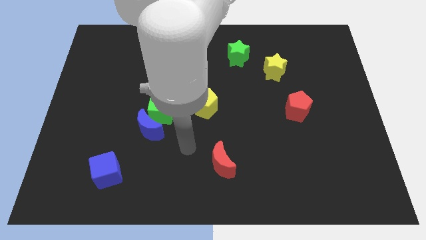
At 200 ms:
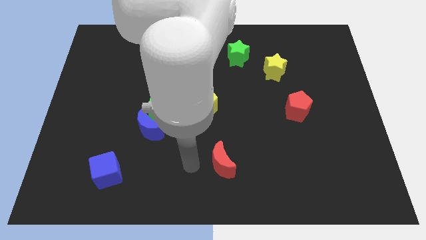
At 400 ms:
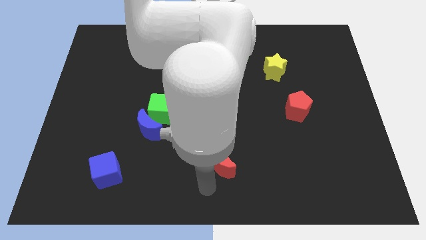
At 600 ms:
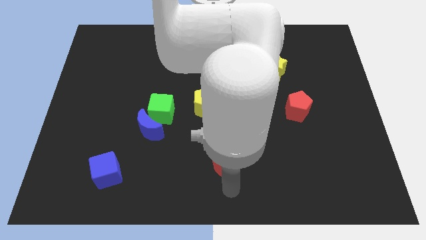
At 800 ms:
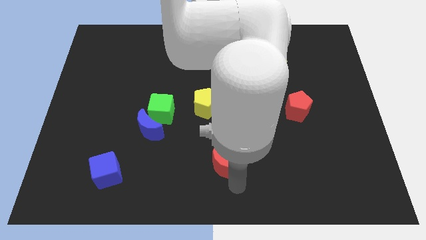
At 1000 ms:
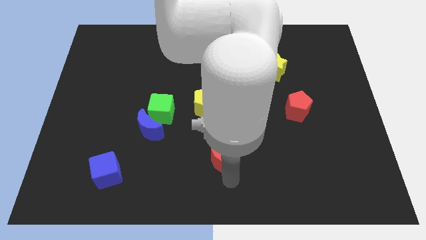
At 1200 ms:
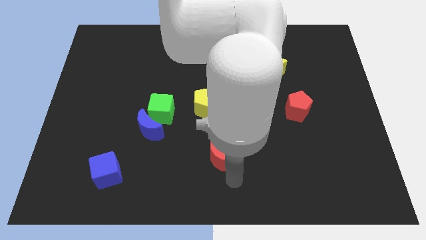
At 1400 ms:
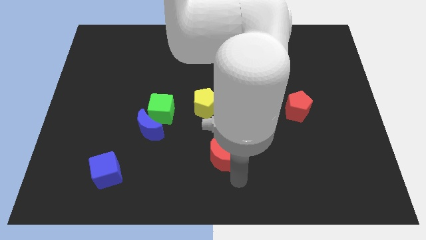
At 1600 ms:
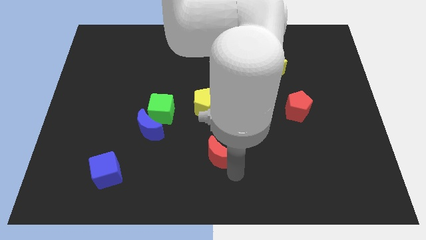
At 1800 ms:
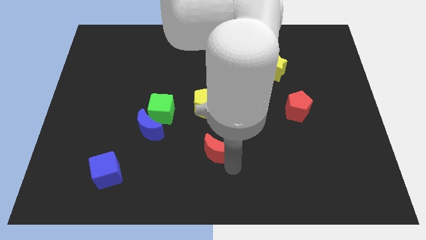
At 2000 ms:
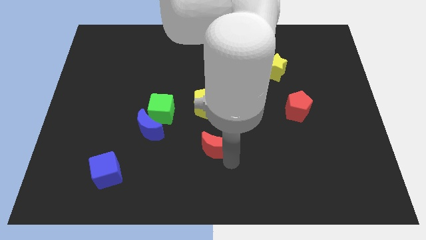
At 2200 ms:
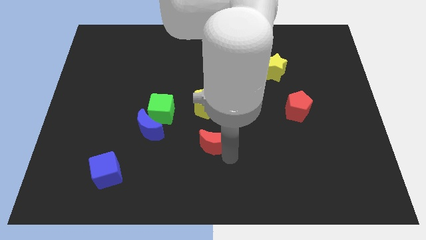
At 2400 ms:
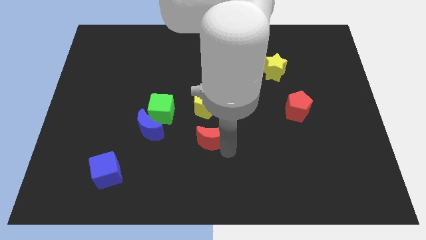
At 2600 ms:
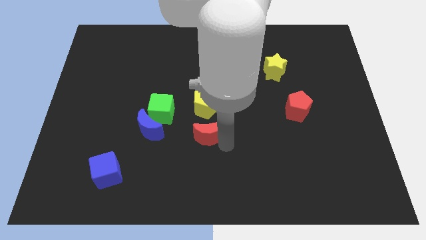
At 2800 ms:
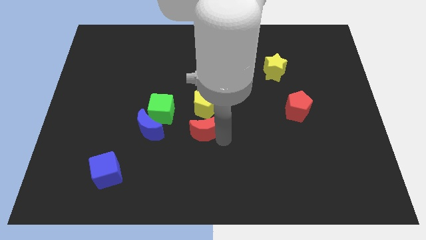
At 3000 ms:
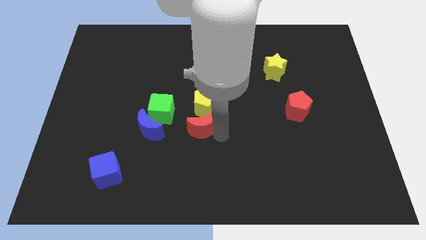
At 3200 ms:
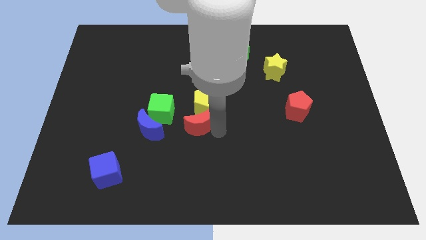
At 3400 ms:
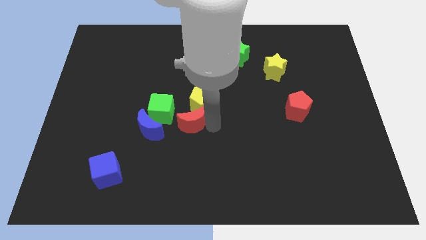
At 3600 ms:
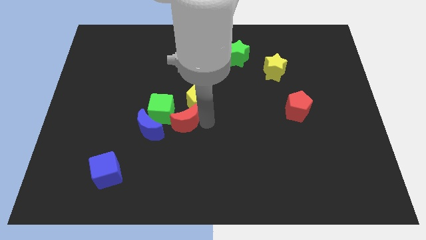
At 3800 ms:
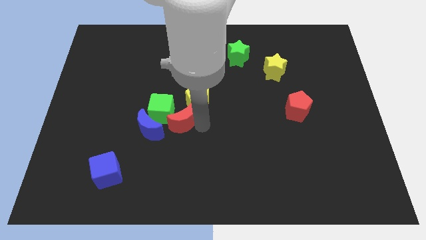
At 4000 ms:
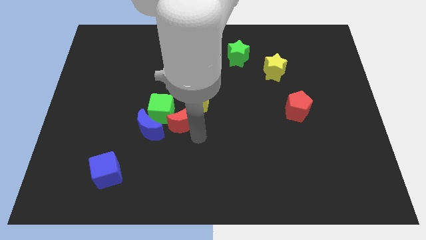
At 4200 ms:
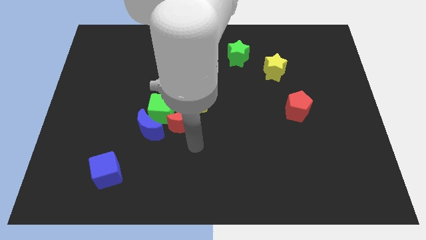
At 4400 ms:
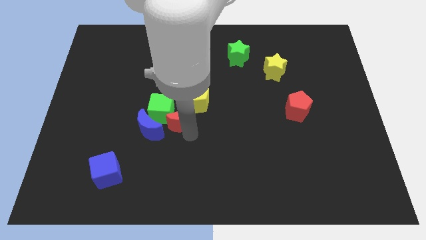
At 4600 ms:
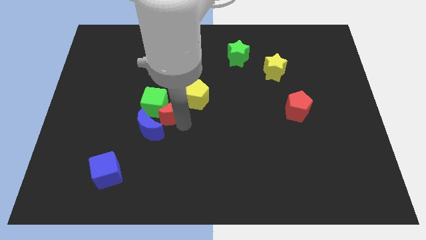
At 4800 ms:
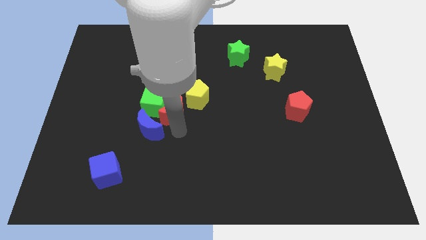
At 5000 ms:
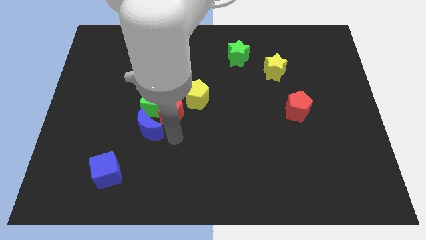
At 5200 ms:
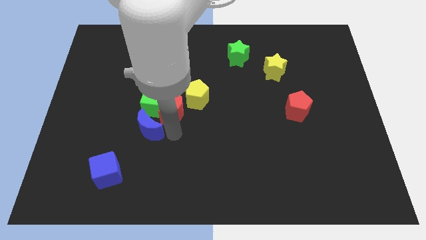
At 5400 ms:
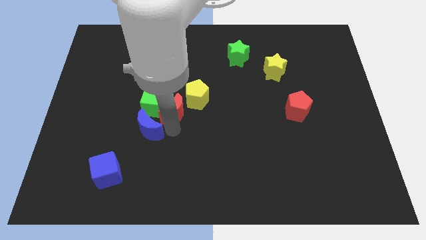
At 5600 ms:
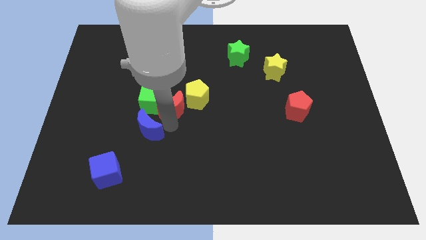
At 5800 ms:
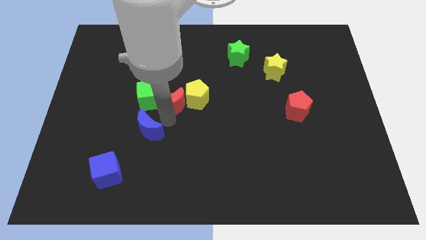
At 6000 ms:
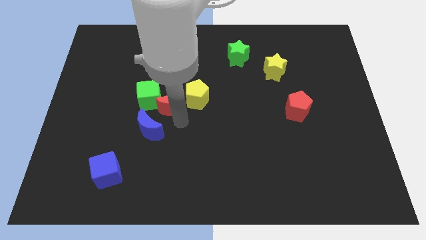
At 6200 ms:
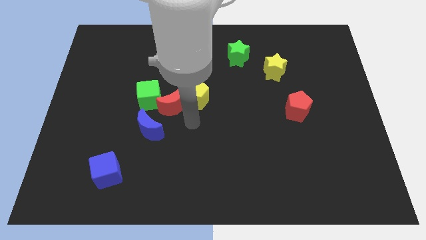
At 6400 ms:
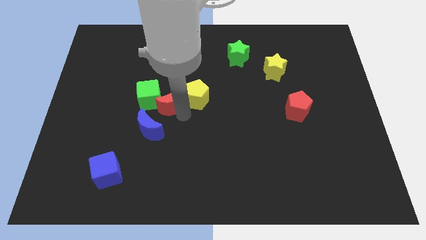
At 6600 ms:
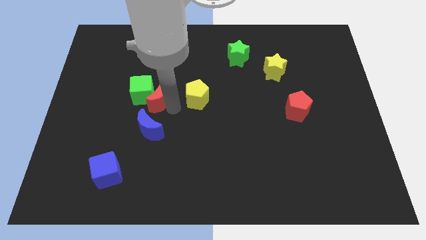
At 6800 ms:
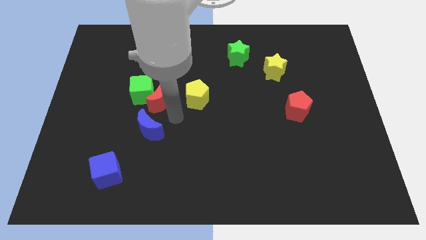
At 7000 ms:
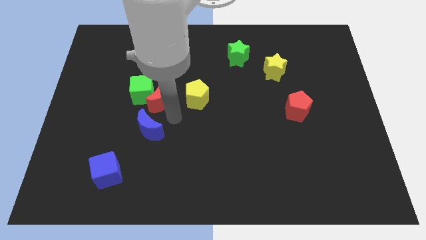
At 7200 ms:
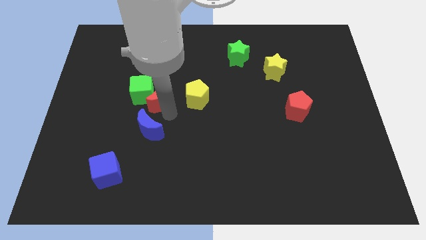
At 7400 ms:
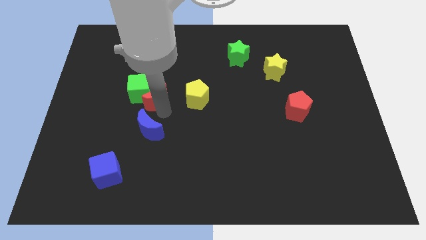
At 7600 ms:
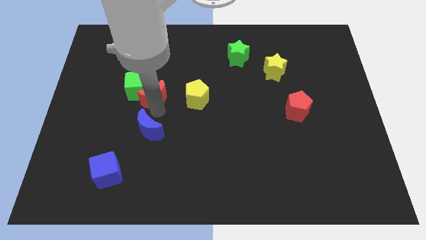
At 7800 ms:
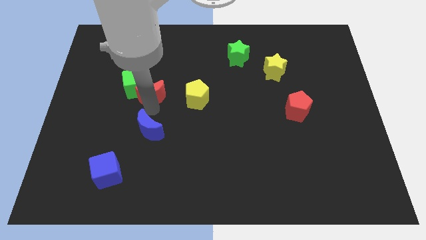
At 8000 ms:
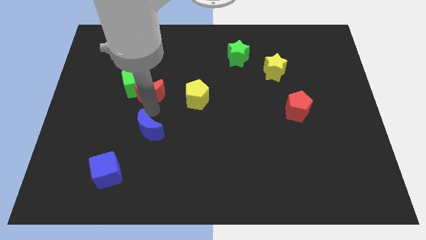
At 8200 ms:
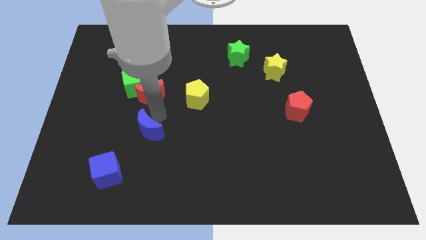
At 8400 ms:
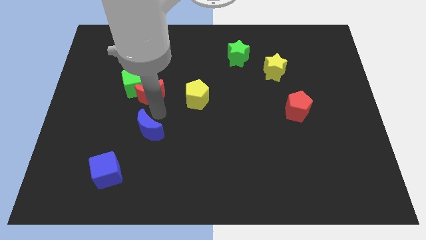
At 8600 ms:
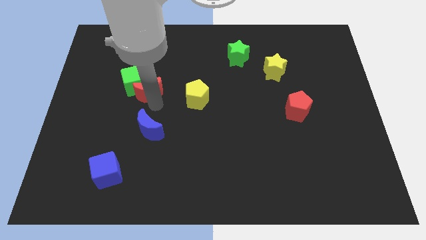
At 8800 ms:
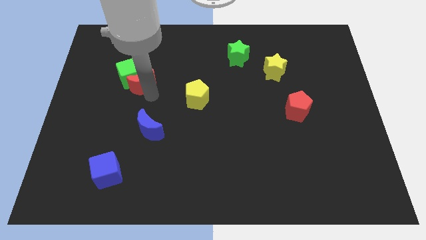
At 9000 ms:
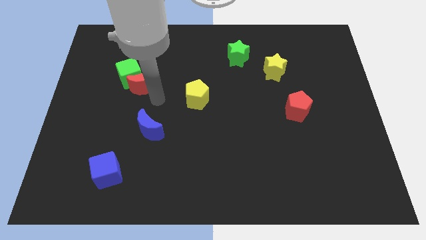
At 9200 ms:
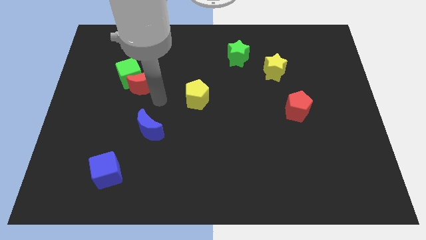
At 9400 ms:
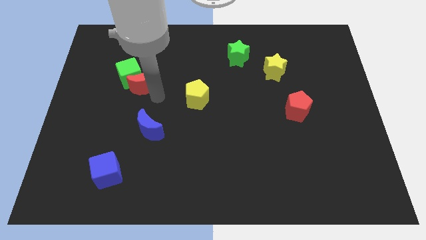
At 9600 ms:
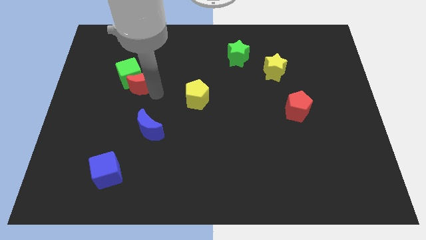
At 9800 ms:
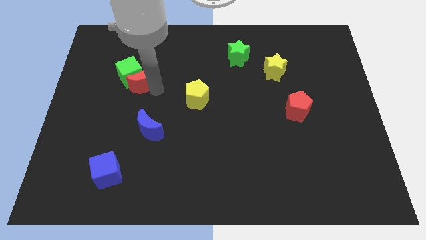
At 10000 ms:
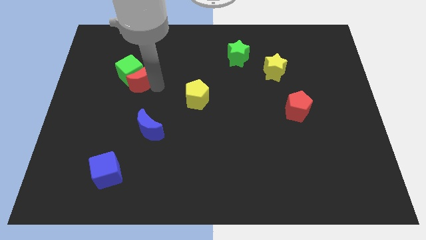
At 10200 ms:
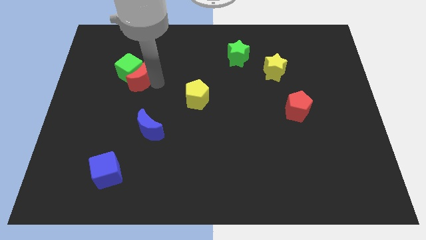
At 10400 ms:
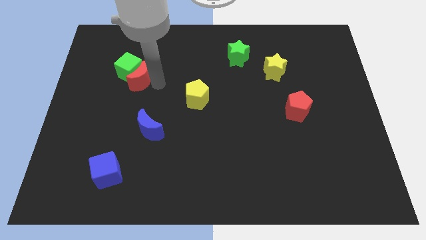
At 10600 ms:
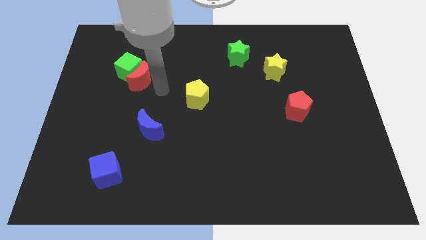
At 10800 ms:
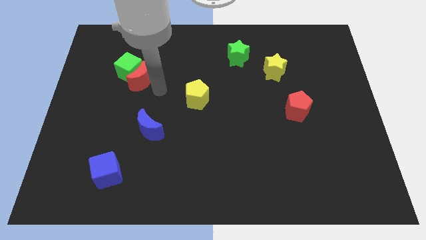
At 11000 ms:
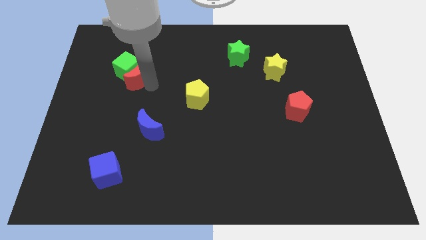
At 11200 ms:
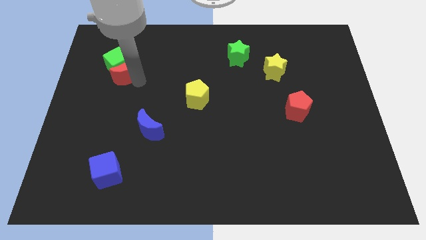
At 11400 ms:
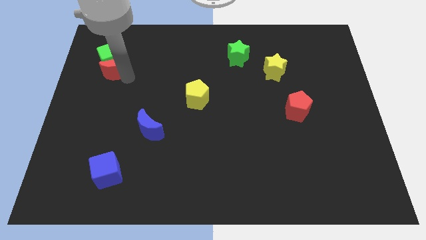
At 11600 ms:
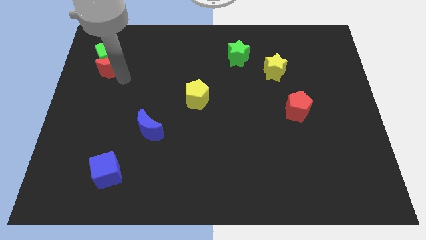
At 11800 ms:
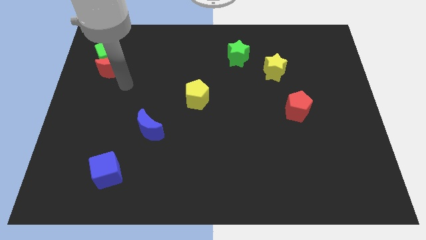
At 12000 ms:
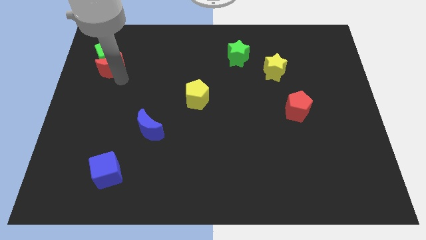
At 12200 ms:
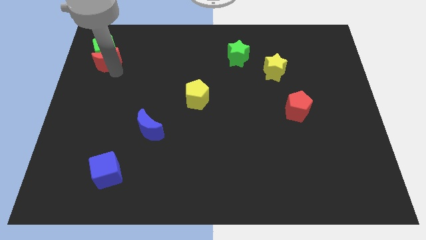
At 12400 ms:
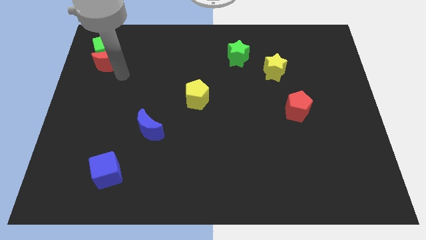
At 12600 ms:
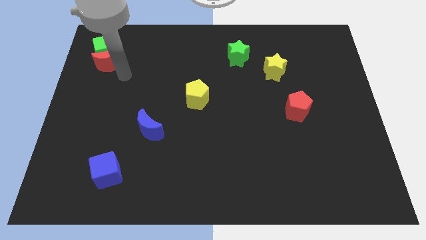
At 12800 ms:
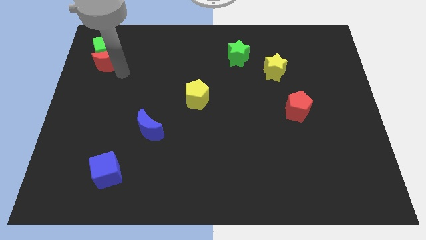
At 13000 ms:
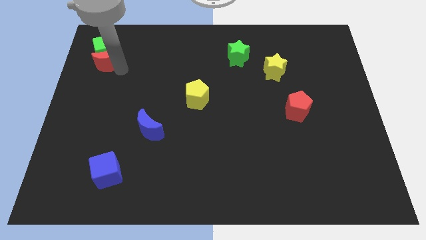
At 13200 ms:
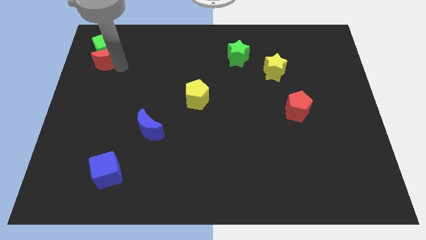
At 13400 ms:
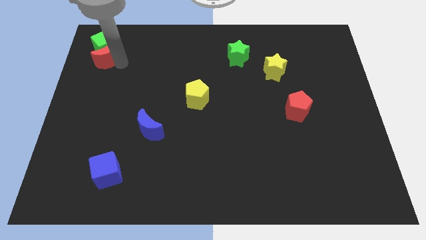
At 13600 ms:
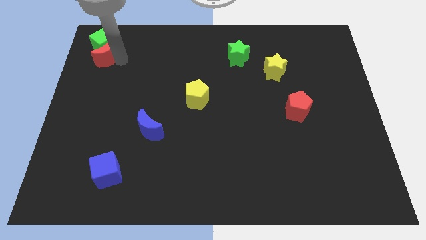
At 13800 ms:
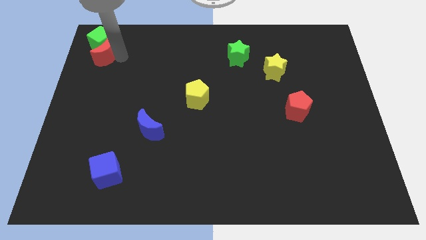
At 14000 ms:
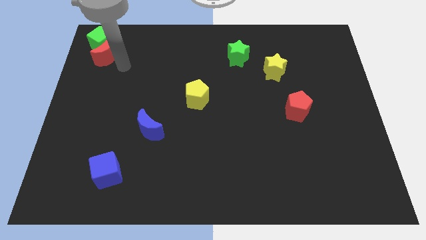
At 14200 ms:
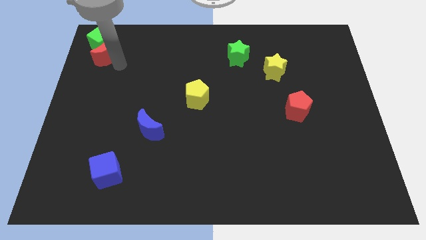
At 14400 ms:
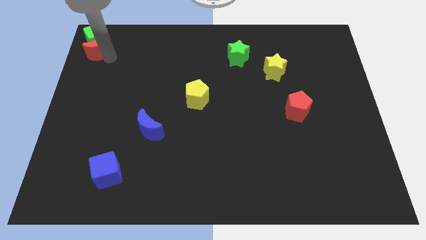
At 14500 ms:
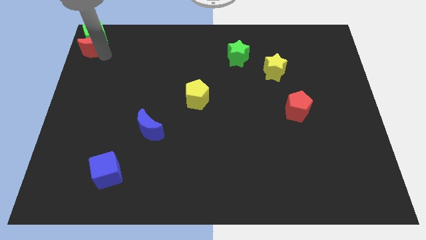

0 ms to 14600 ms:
put the red moon to the top left of the board
